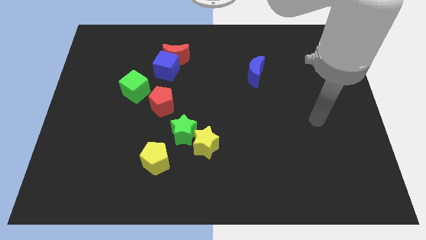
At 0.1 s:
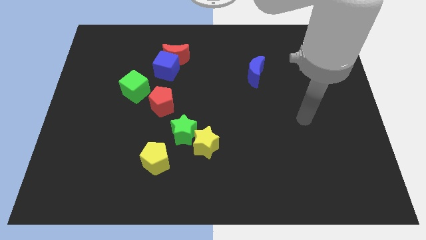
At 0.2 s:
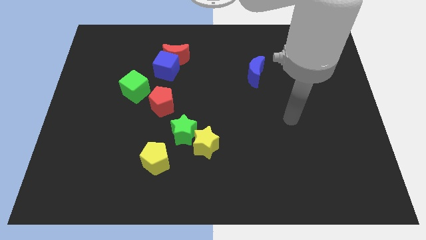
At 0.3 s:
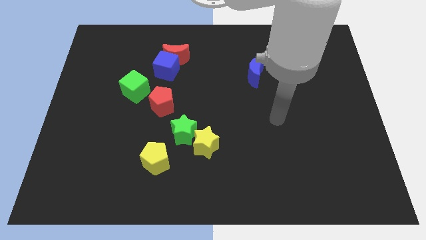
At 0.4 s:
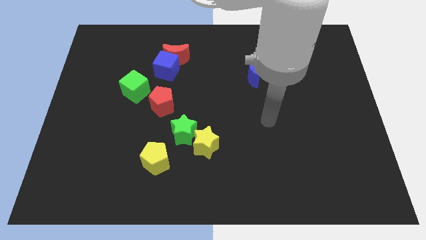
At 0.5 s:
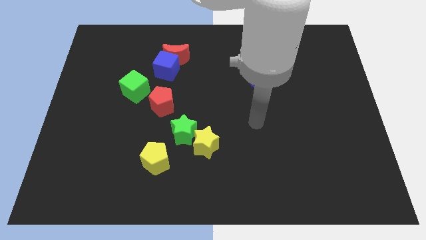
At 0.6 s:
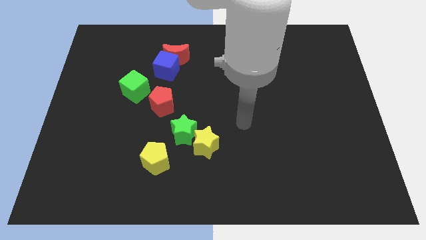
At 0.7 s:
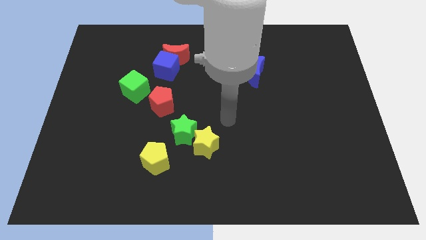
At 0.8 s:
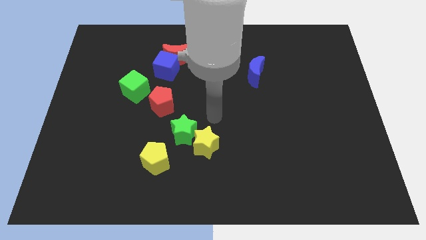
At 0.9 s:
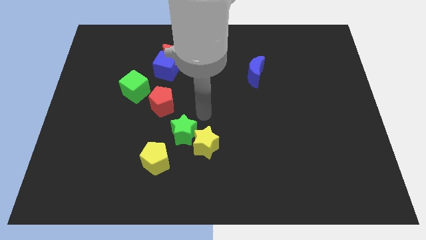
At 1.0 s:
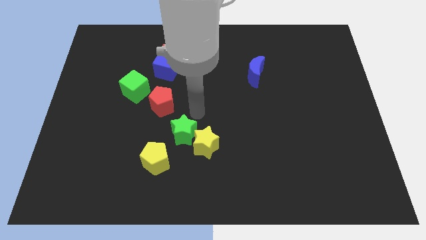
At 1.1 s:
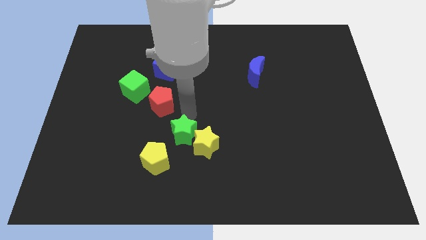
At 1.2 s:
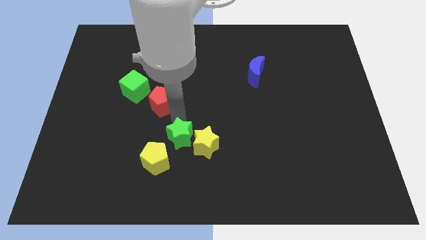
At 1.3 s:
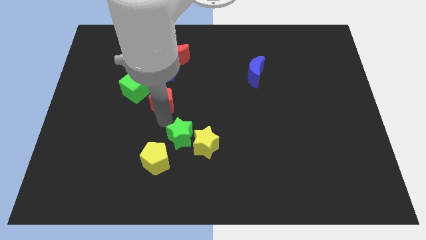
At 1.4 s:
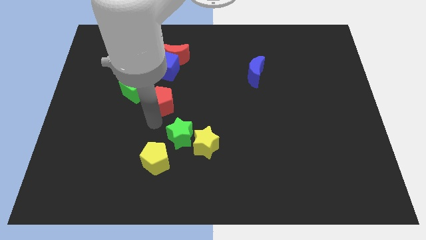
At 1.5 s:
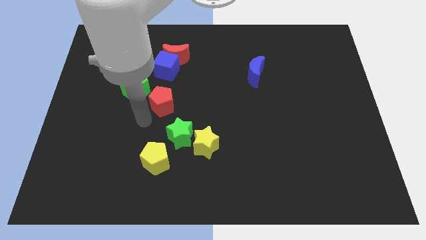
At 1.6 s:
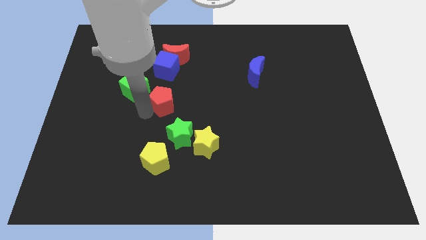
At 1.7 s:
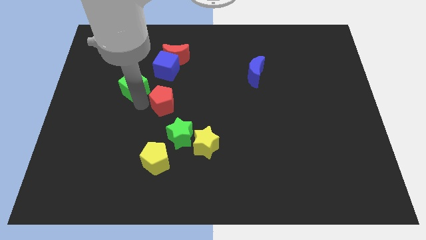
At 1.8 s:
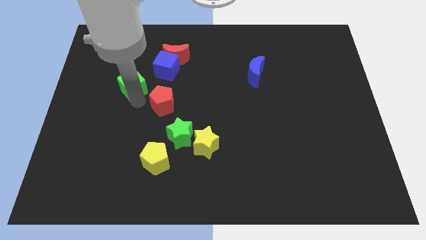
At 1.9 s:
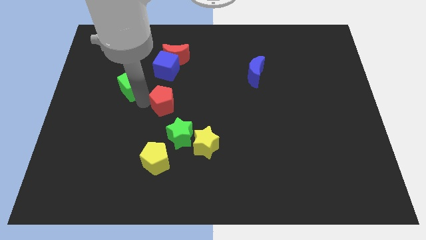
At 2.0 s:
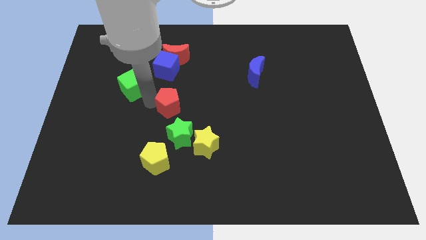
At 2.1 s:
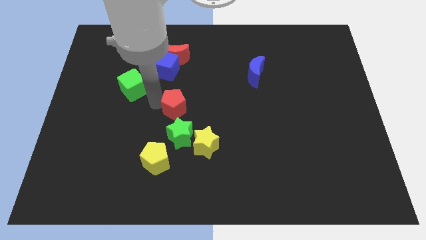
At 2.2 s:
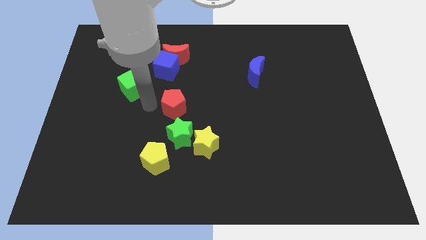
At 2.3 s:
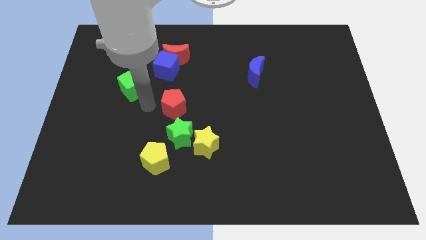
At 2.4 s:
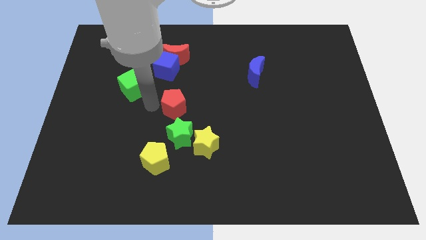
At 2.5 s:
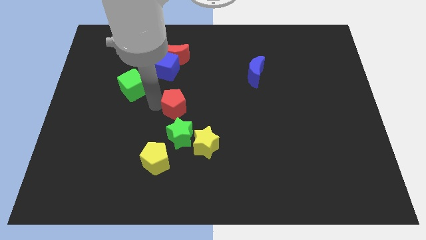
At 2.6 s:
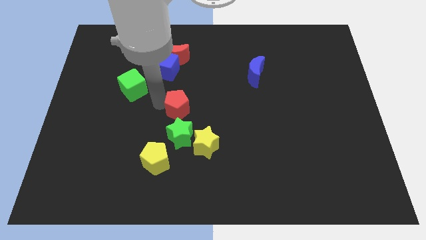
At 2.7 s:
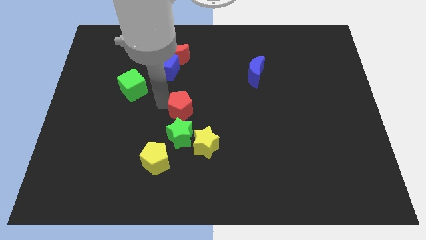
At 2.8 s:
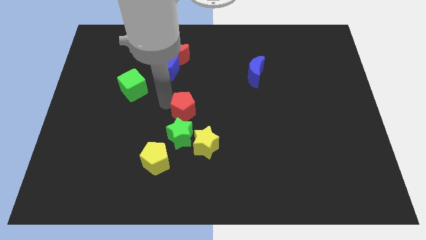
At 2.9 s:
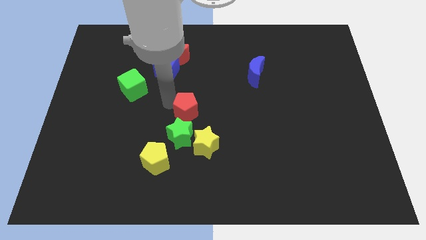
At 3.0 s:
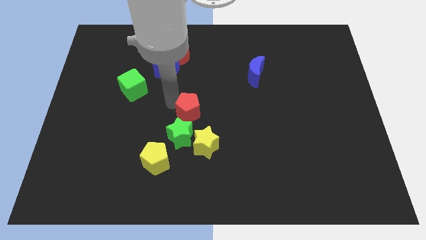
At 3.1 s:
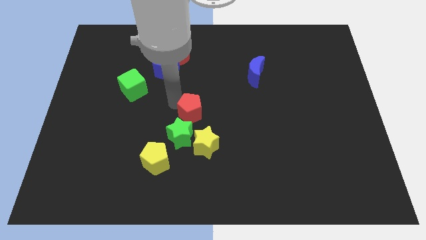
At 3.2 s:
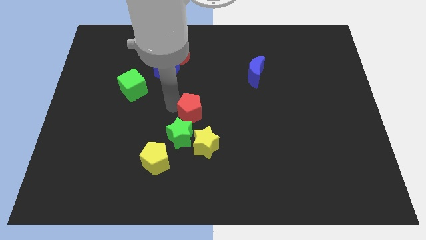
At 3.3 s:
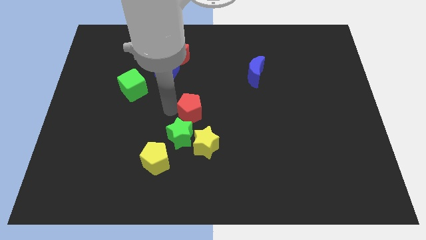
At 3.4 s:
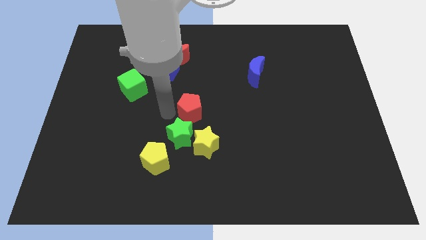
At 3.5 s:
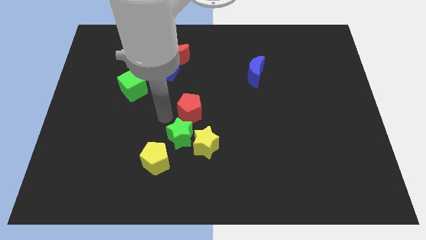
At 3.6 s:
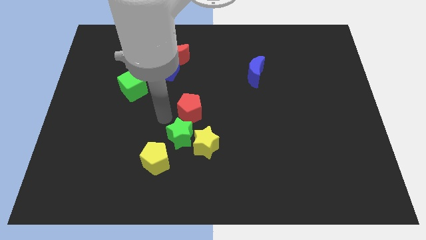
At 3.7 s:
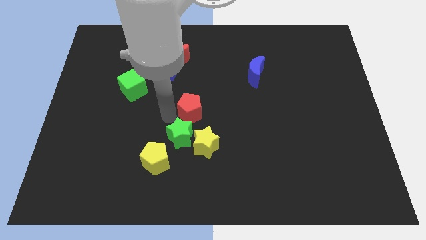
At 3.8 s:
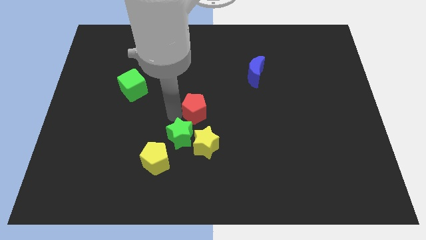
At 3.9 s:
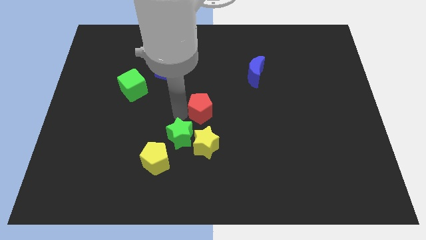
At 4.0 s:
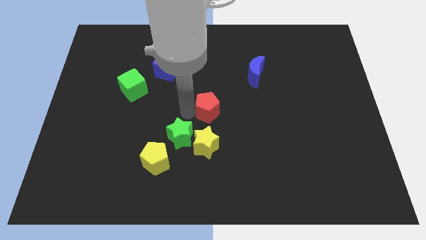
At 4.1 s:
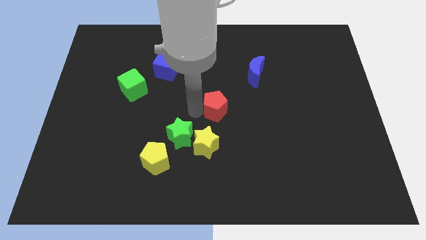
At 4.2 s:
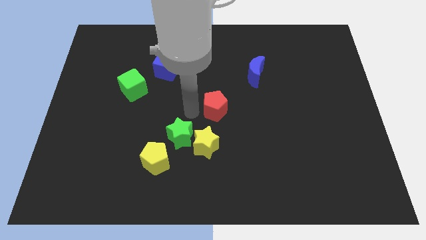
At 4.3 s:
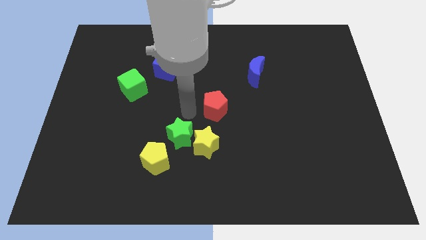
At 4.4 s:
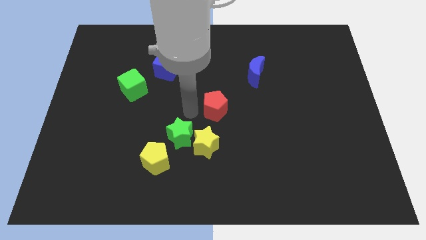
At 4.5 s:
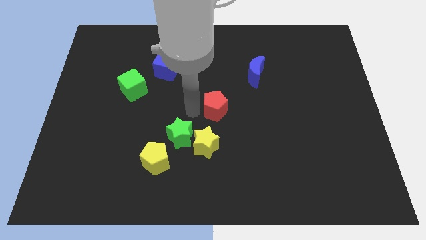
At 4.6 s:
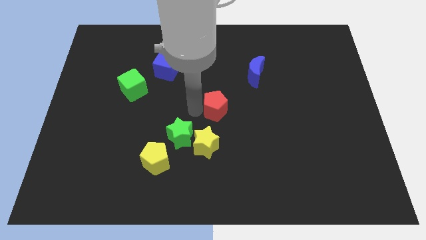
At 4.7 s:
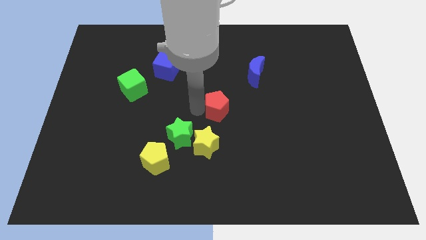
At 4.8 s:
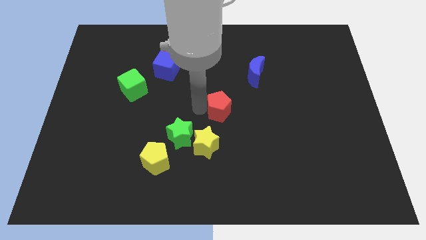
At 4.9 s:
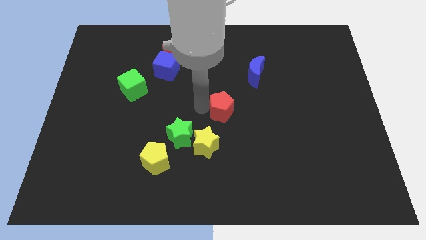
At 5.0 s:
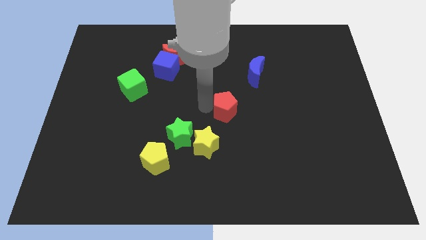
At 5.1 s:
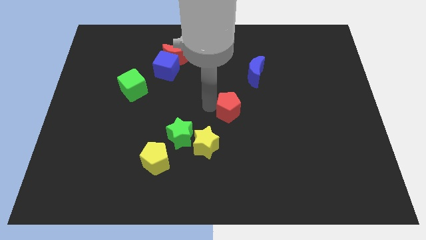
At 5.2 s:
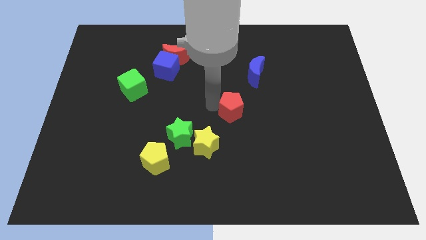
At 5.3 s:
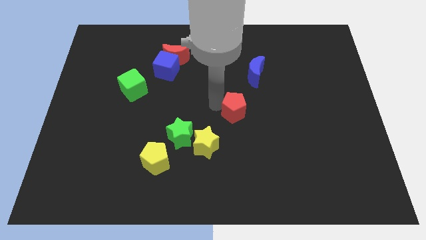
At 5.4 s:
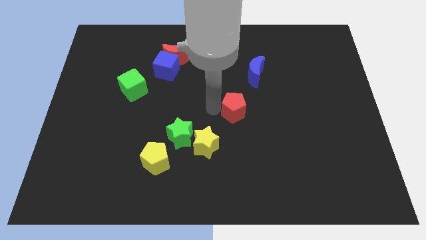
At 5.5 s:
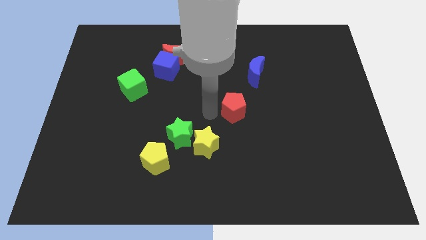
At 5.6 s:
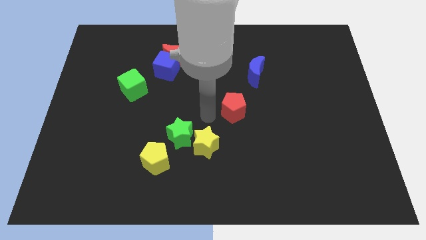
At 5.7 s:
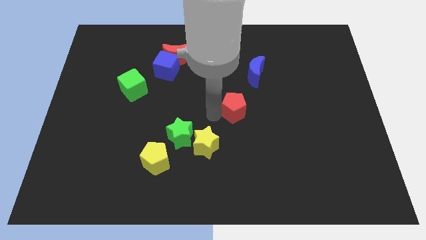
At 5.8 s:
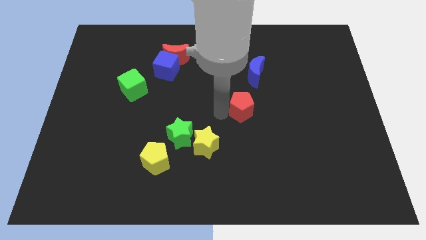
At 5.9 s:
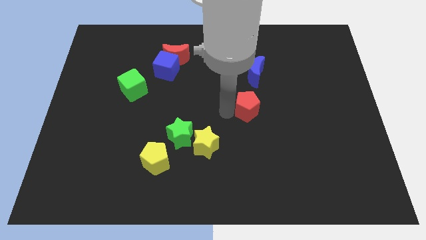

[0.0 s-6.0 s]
slide the red pentagon right

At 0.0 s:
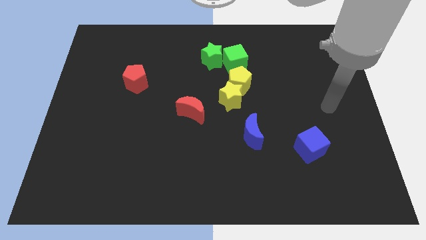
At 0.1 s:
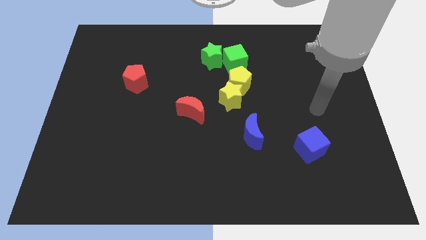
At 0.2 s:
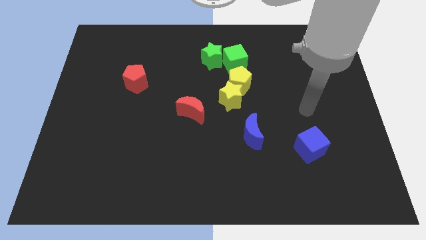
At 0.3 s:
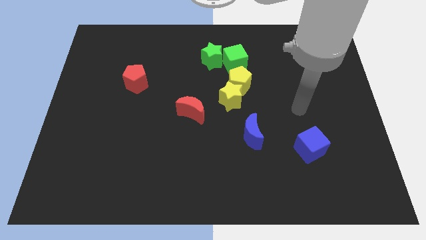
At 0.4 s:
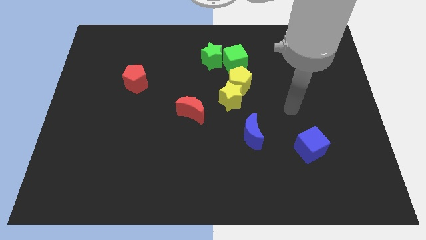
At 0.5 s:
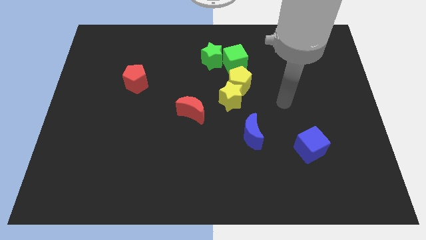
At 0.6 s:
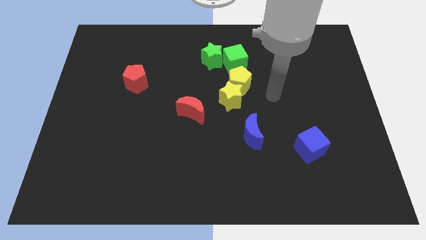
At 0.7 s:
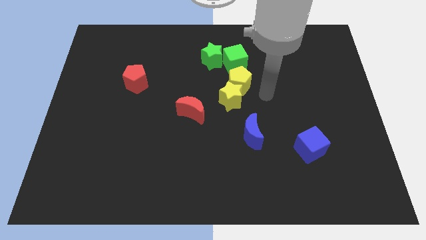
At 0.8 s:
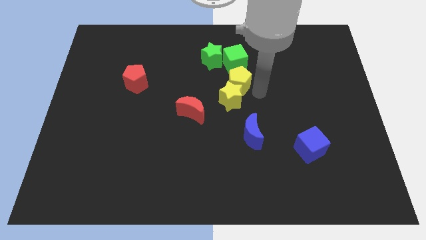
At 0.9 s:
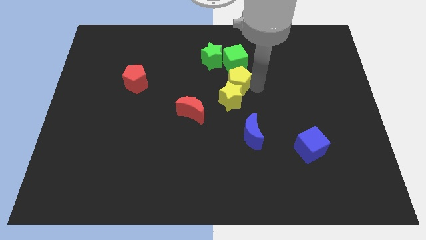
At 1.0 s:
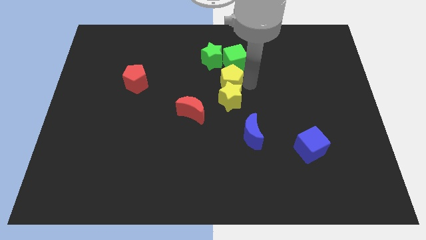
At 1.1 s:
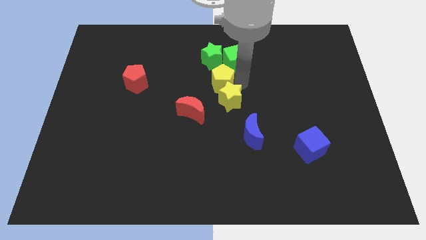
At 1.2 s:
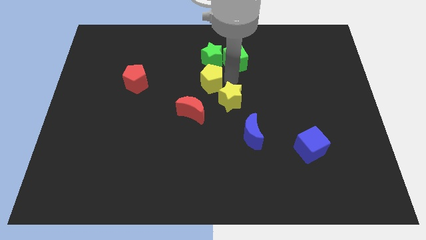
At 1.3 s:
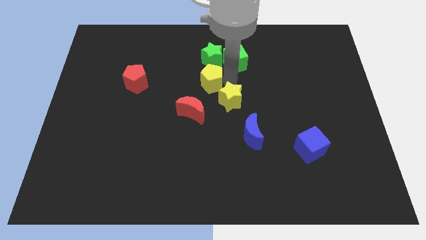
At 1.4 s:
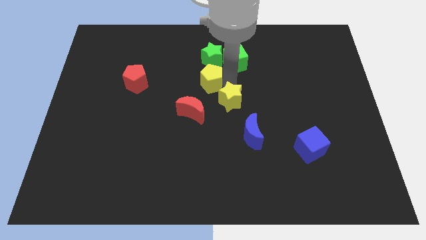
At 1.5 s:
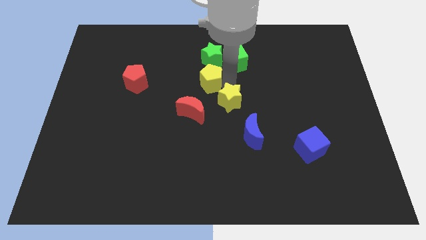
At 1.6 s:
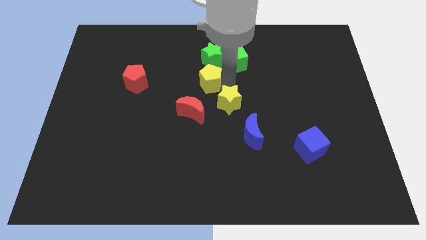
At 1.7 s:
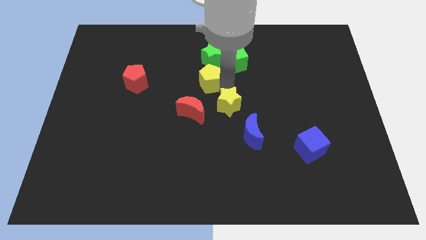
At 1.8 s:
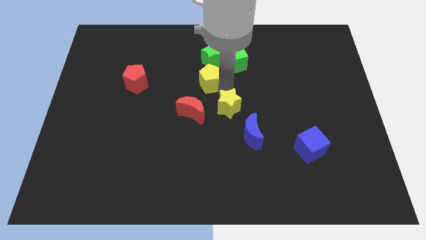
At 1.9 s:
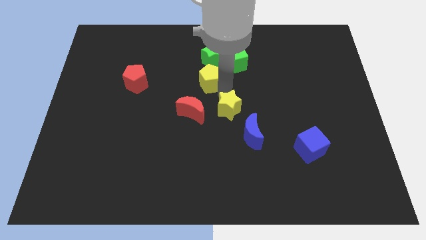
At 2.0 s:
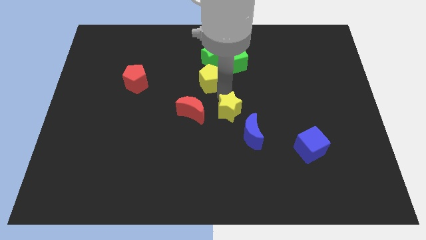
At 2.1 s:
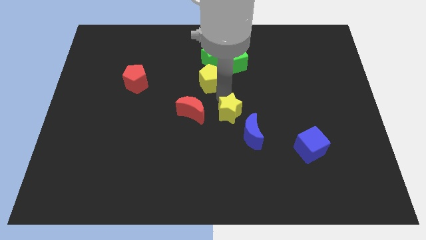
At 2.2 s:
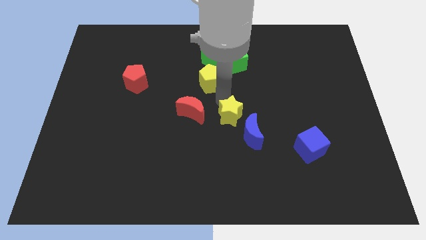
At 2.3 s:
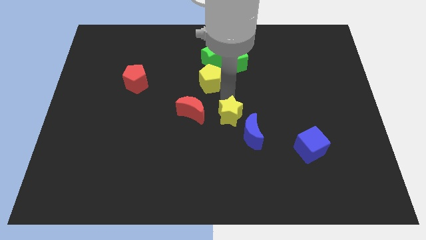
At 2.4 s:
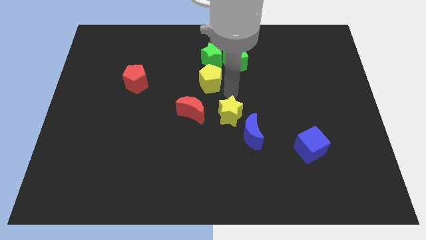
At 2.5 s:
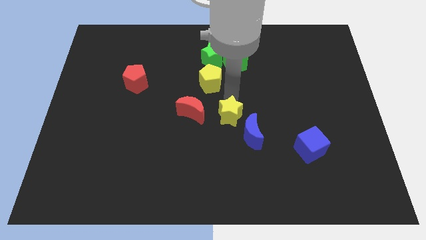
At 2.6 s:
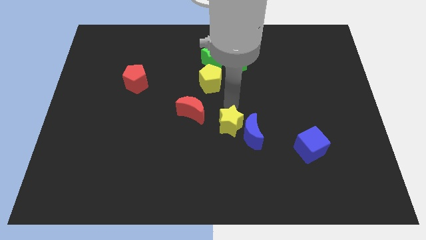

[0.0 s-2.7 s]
slightly move the yellow star downwards
